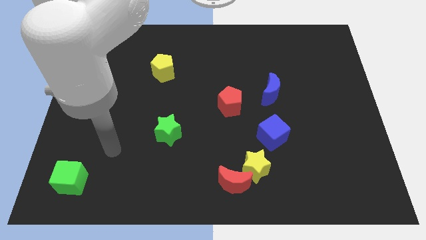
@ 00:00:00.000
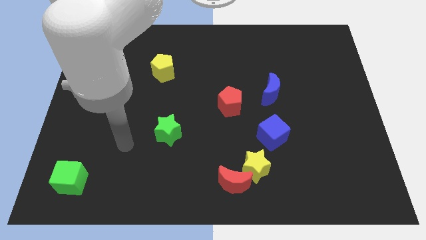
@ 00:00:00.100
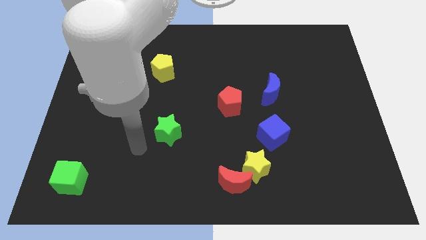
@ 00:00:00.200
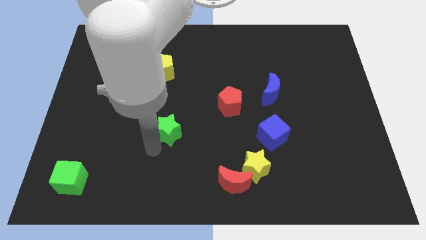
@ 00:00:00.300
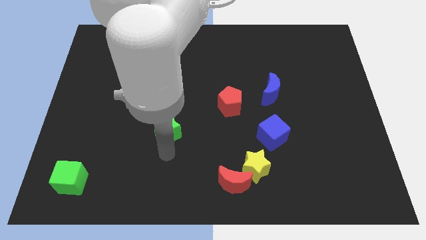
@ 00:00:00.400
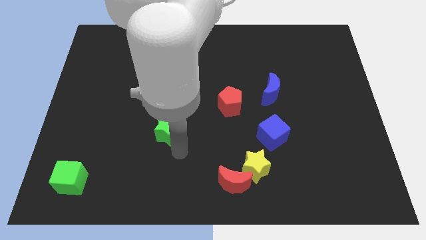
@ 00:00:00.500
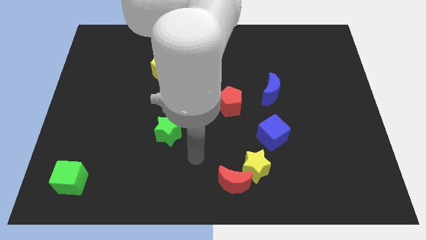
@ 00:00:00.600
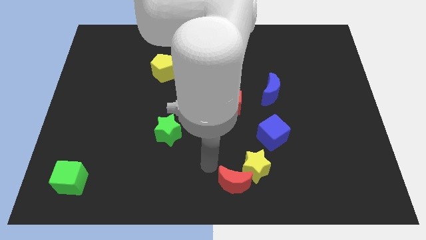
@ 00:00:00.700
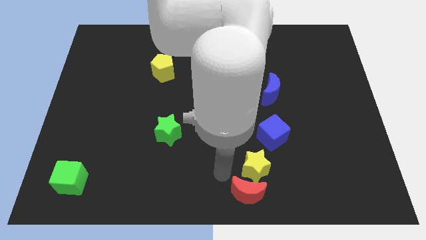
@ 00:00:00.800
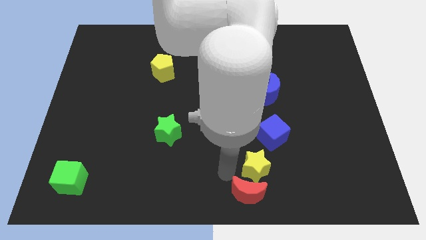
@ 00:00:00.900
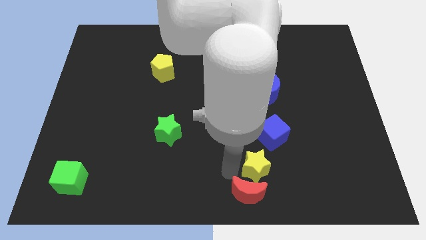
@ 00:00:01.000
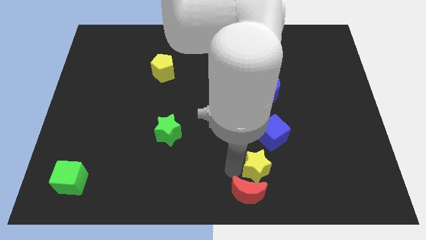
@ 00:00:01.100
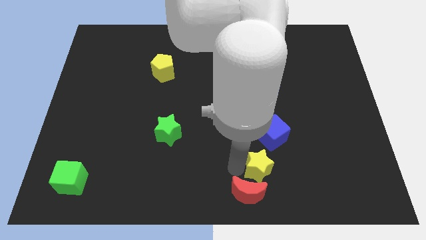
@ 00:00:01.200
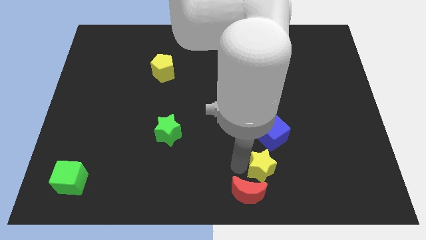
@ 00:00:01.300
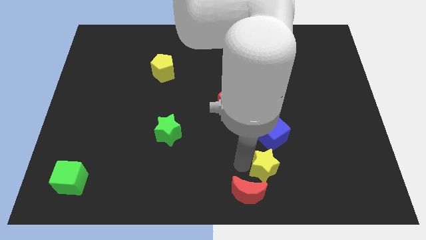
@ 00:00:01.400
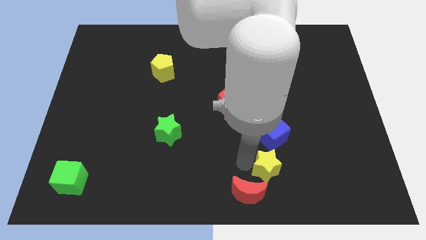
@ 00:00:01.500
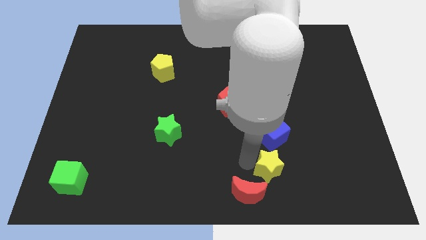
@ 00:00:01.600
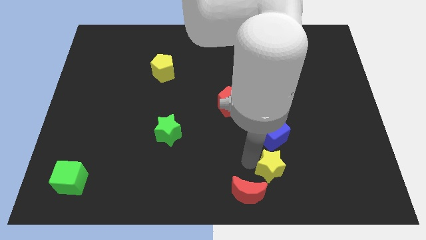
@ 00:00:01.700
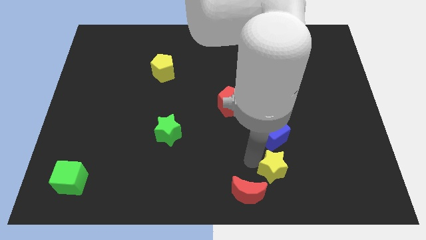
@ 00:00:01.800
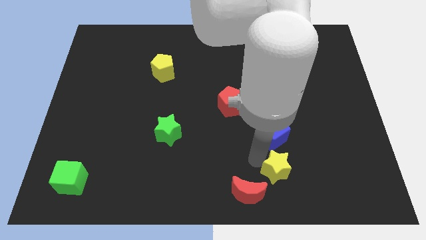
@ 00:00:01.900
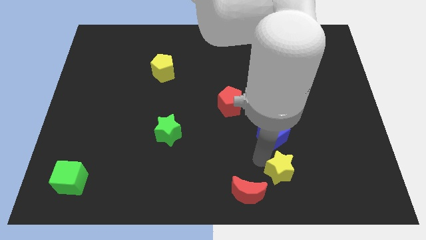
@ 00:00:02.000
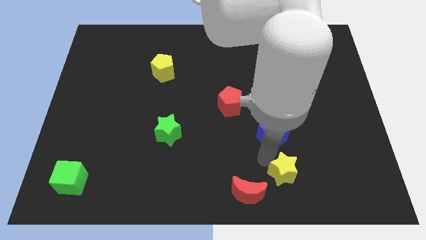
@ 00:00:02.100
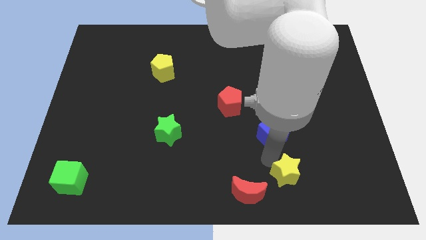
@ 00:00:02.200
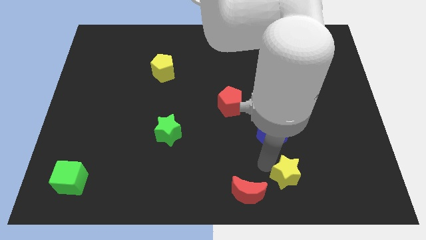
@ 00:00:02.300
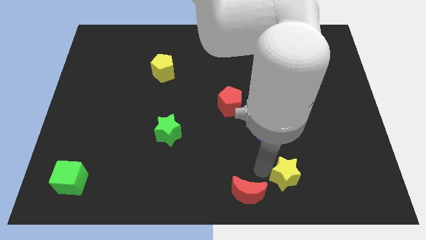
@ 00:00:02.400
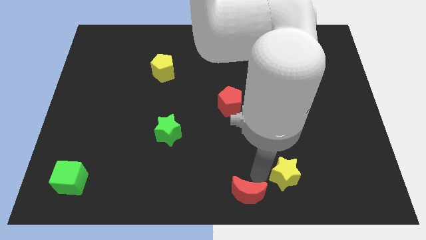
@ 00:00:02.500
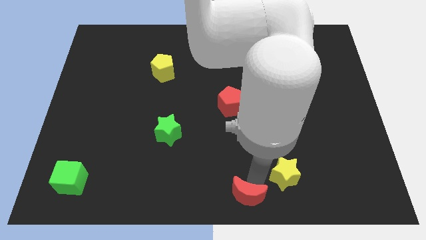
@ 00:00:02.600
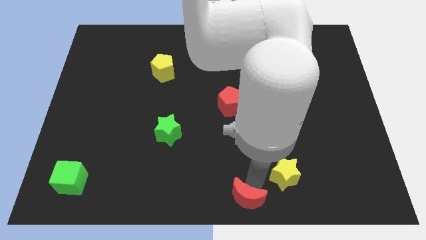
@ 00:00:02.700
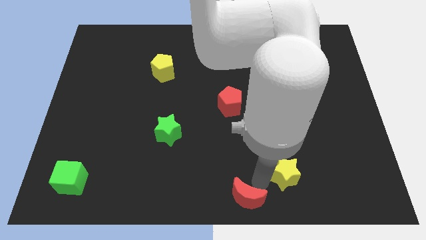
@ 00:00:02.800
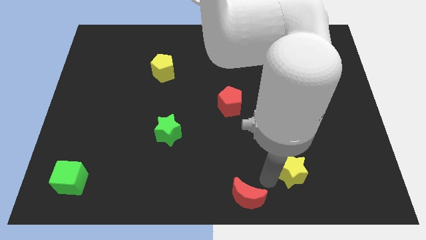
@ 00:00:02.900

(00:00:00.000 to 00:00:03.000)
push the yellow star slightly right

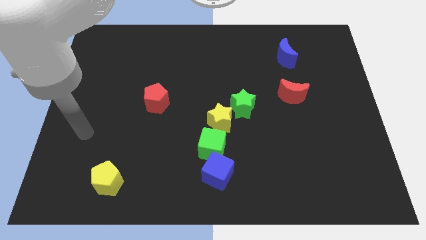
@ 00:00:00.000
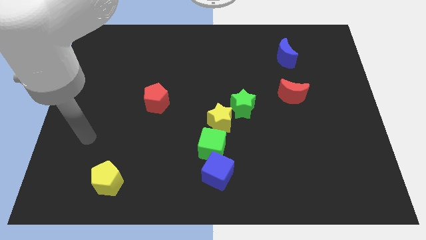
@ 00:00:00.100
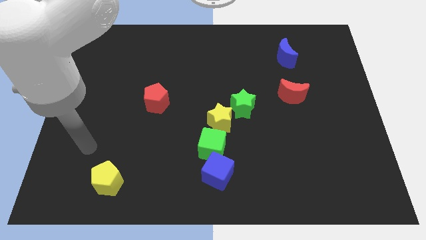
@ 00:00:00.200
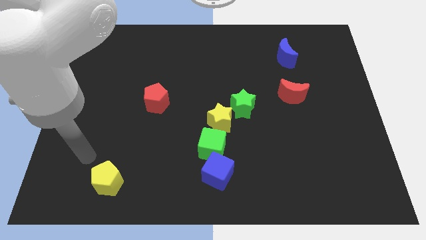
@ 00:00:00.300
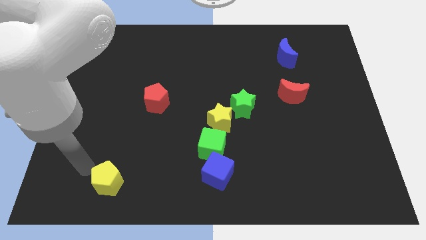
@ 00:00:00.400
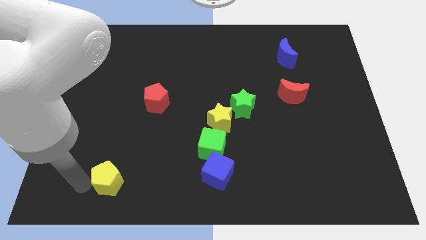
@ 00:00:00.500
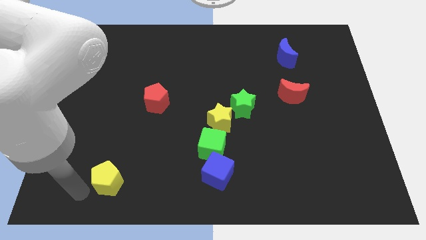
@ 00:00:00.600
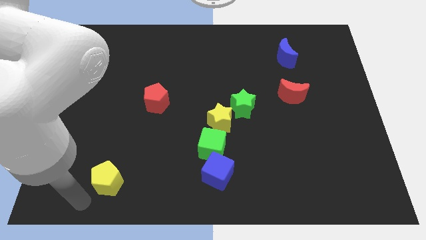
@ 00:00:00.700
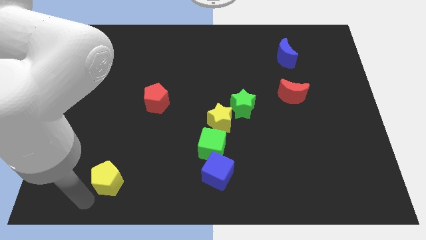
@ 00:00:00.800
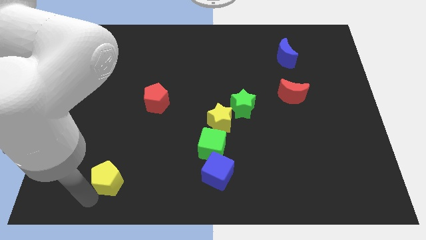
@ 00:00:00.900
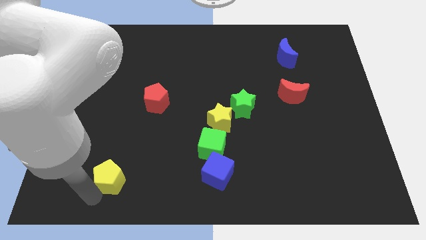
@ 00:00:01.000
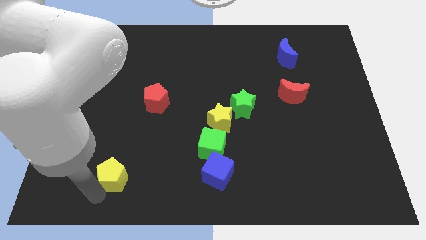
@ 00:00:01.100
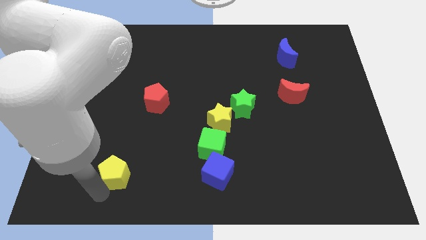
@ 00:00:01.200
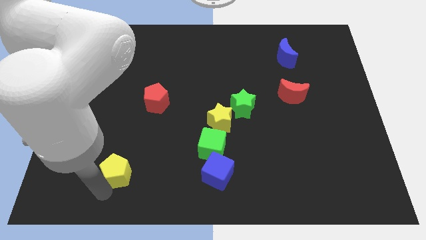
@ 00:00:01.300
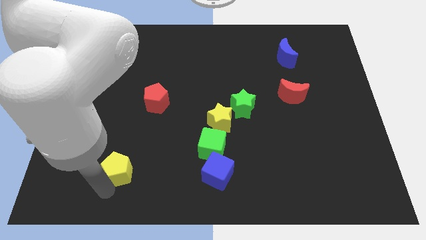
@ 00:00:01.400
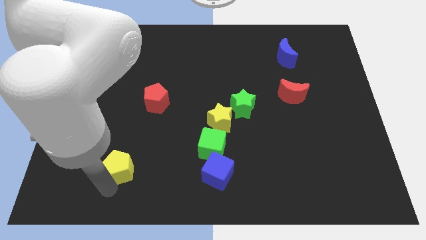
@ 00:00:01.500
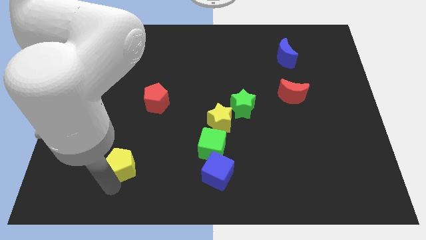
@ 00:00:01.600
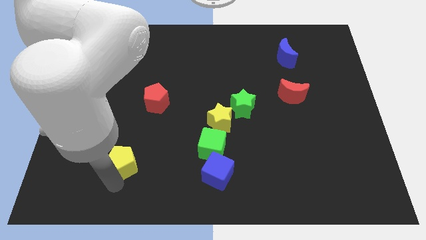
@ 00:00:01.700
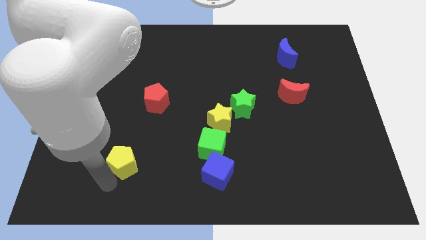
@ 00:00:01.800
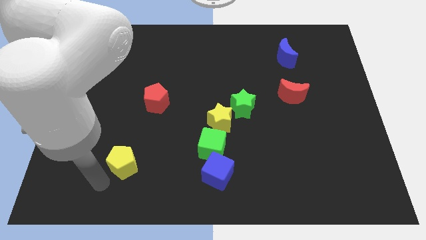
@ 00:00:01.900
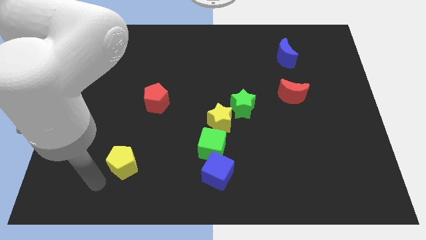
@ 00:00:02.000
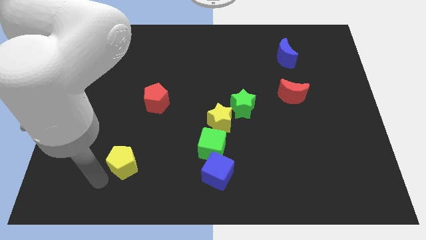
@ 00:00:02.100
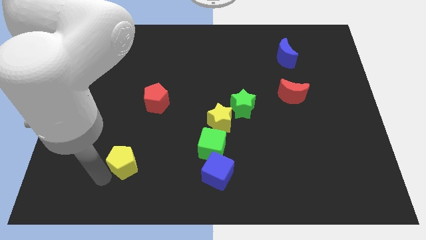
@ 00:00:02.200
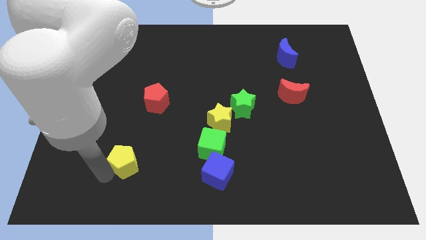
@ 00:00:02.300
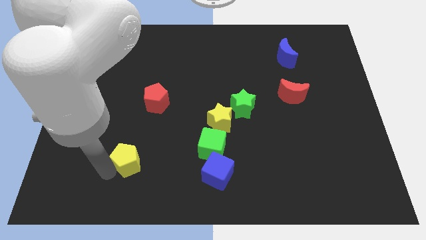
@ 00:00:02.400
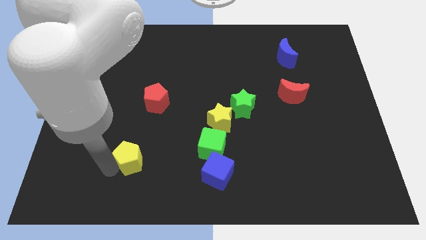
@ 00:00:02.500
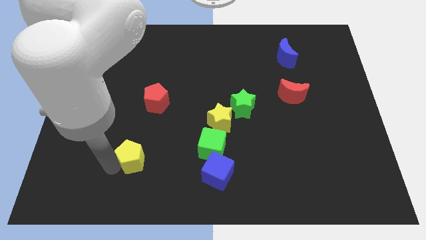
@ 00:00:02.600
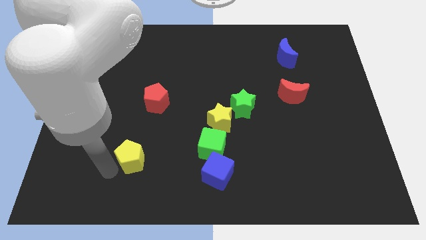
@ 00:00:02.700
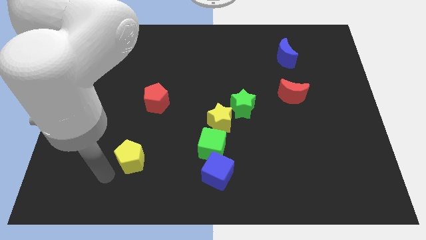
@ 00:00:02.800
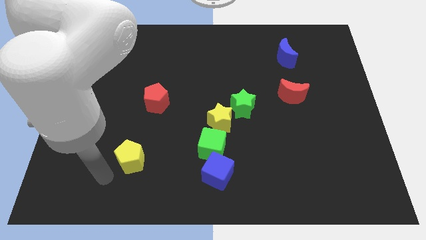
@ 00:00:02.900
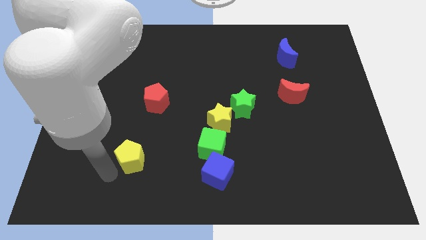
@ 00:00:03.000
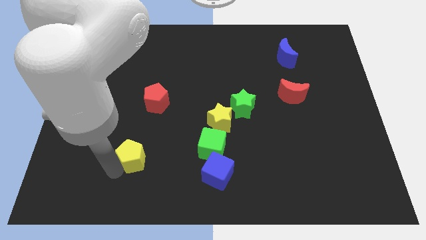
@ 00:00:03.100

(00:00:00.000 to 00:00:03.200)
move the yellow pentagon upwards and then right a little bit

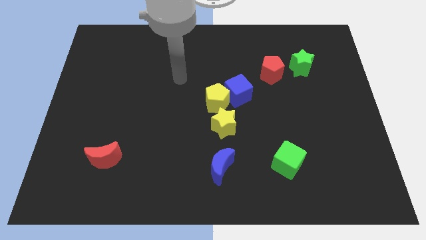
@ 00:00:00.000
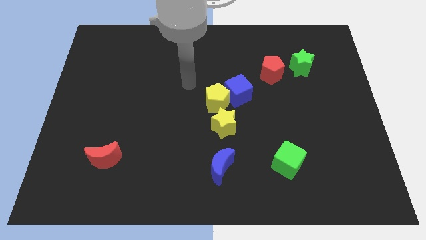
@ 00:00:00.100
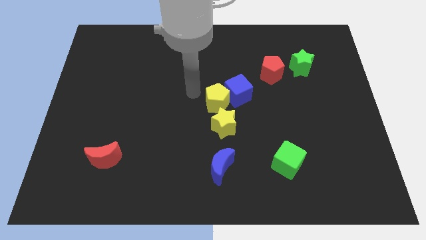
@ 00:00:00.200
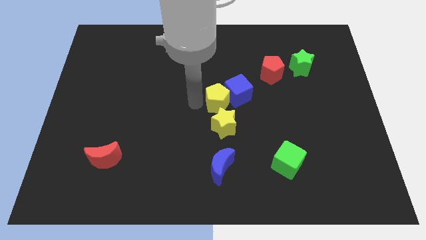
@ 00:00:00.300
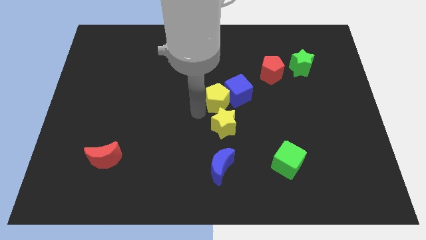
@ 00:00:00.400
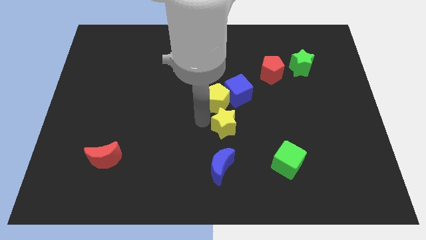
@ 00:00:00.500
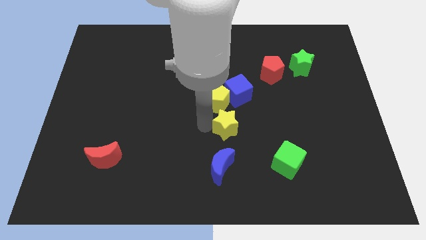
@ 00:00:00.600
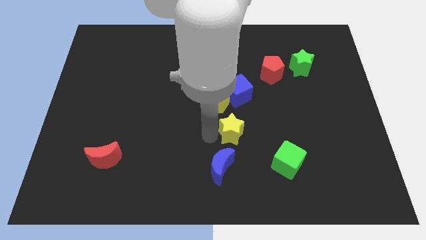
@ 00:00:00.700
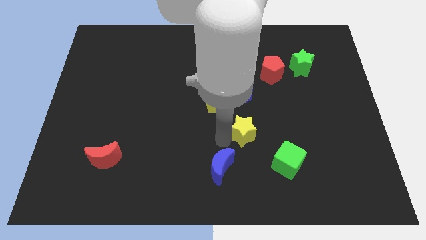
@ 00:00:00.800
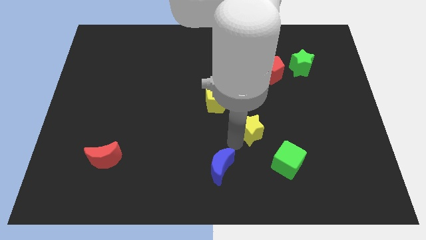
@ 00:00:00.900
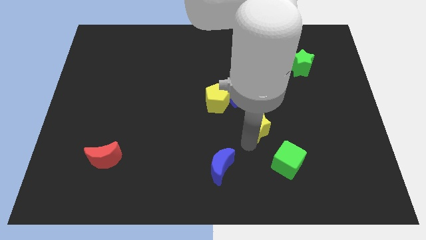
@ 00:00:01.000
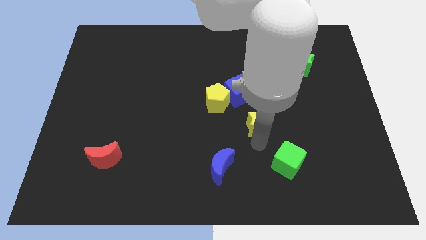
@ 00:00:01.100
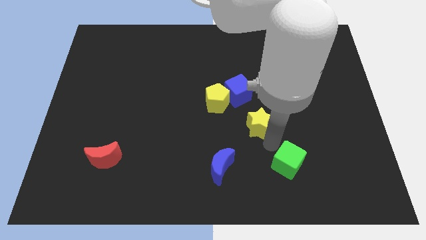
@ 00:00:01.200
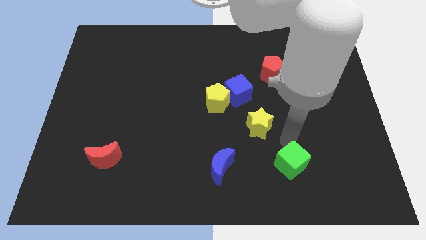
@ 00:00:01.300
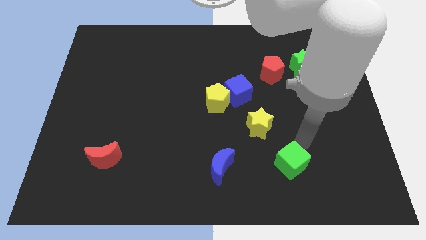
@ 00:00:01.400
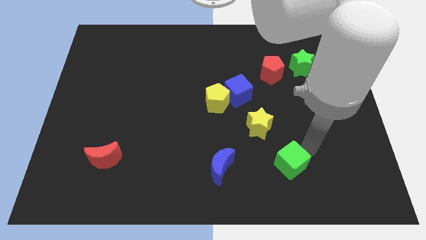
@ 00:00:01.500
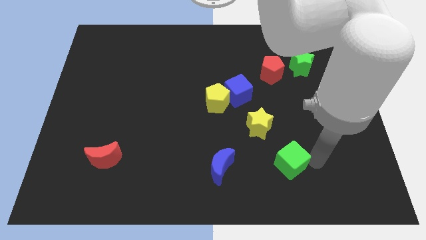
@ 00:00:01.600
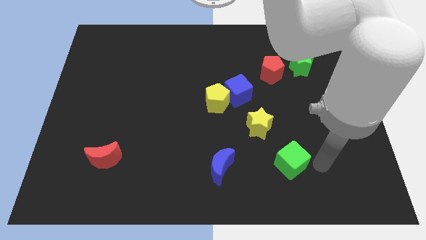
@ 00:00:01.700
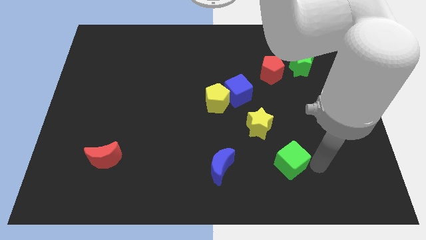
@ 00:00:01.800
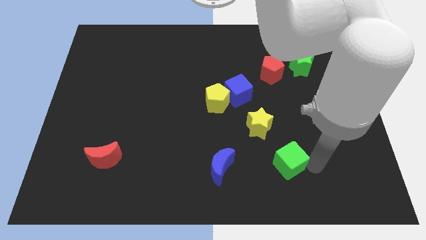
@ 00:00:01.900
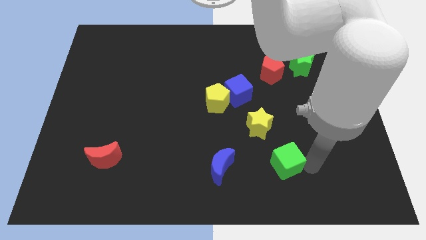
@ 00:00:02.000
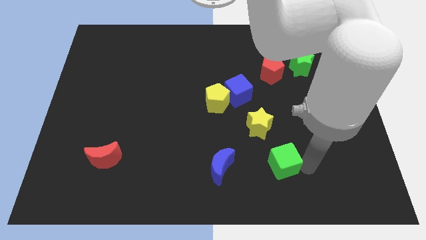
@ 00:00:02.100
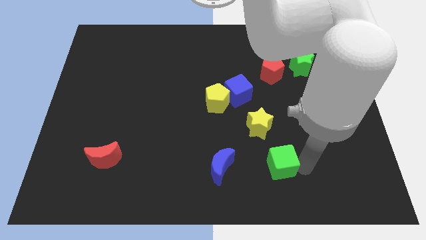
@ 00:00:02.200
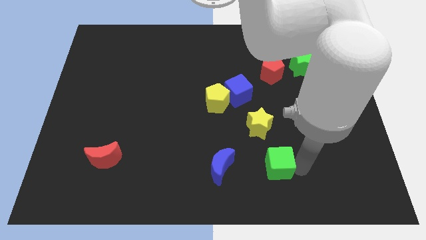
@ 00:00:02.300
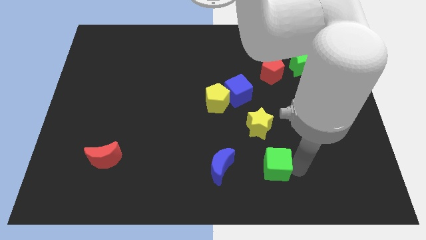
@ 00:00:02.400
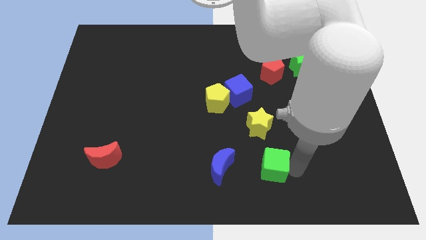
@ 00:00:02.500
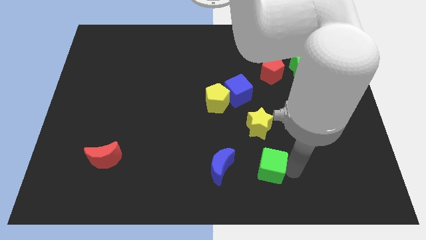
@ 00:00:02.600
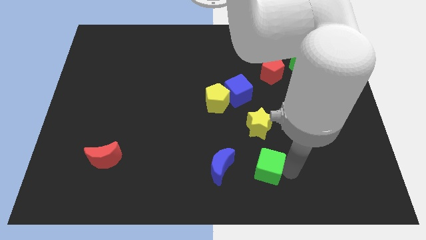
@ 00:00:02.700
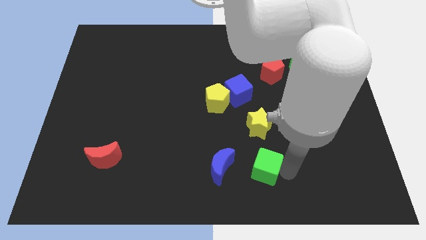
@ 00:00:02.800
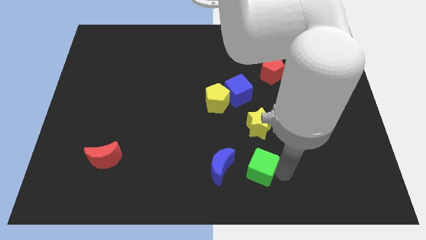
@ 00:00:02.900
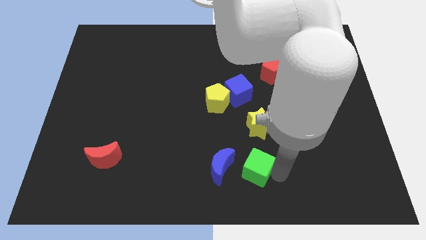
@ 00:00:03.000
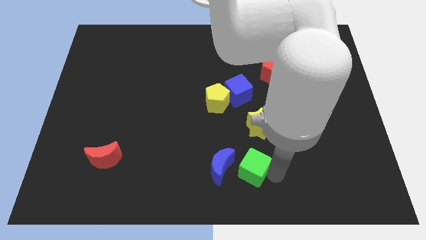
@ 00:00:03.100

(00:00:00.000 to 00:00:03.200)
move the green cube a bit left
